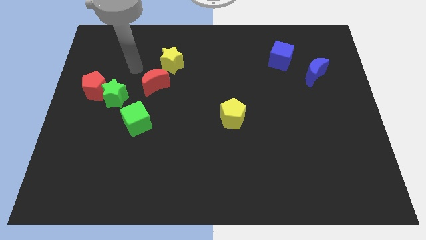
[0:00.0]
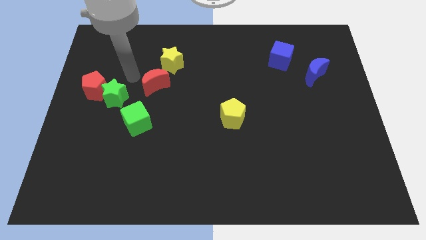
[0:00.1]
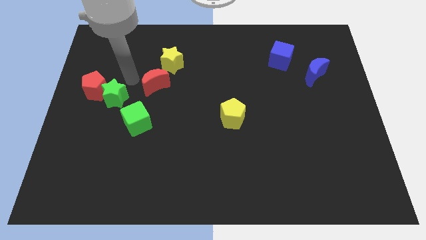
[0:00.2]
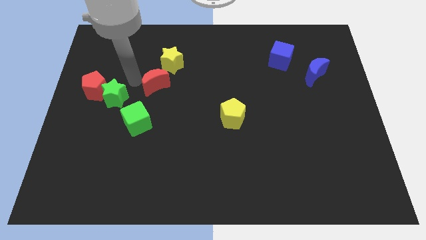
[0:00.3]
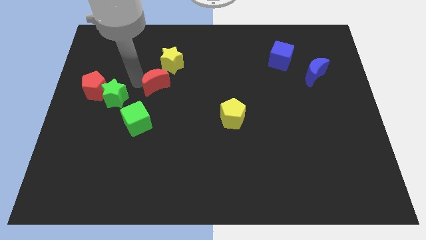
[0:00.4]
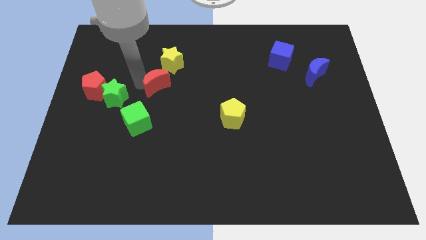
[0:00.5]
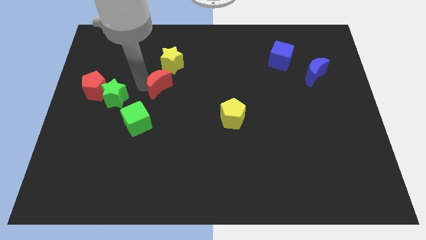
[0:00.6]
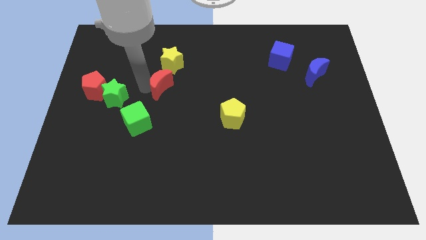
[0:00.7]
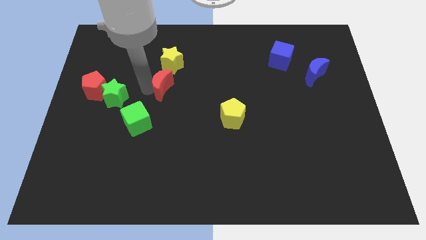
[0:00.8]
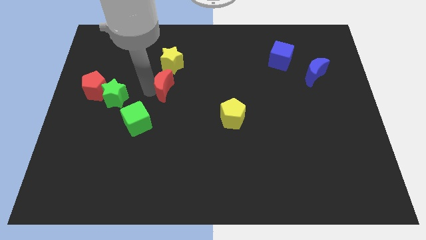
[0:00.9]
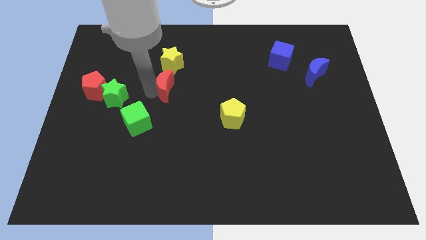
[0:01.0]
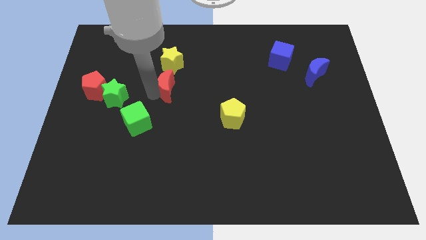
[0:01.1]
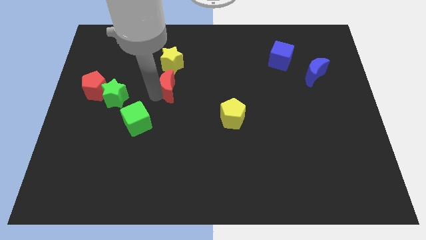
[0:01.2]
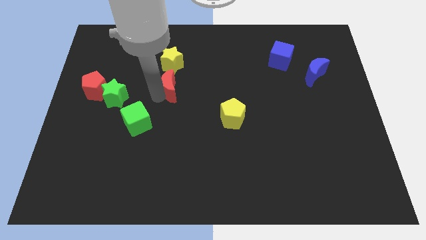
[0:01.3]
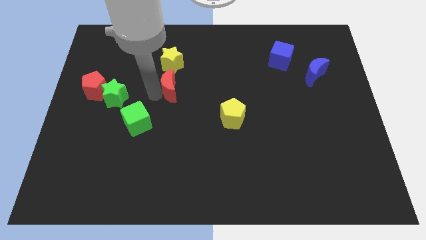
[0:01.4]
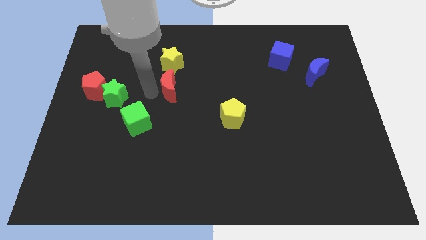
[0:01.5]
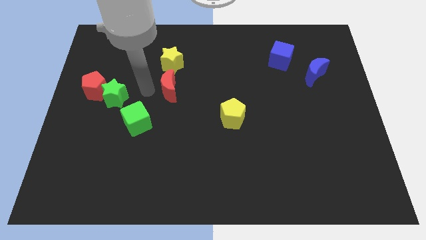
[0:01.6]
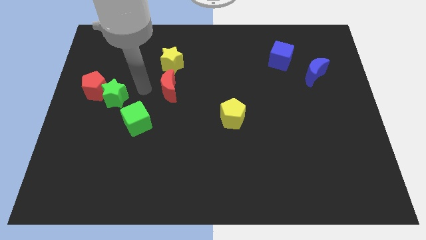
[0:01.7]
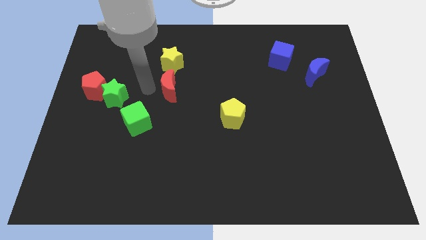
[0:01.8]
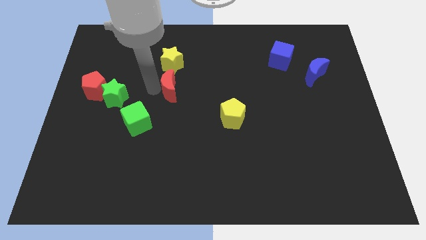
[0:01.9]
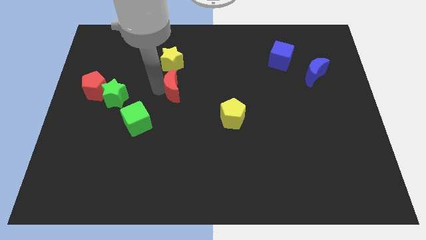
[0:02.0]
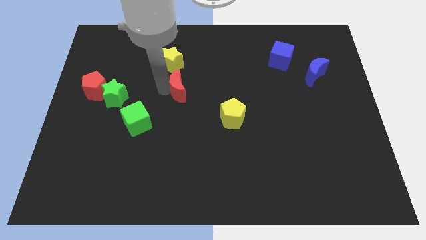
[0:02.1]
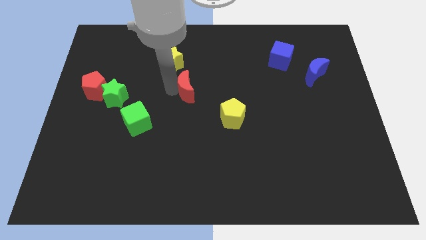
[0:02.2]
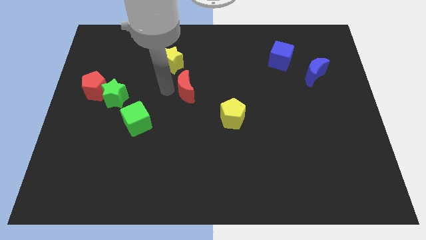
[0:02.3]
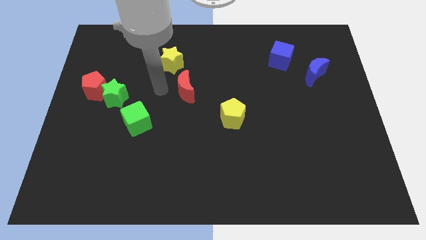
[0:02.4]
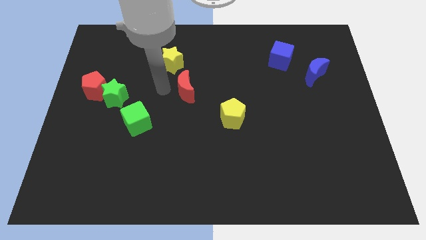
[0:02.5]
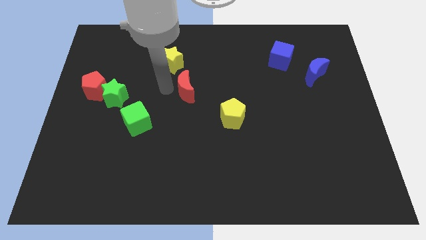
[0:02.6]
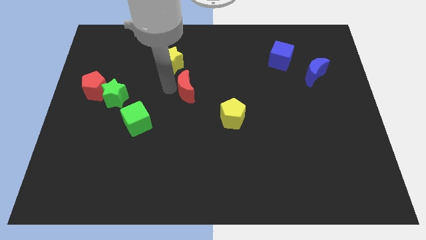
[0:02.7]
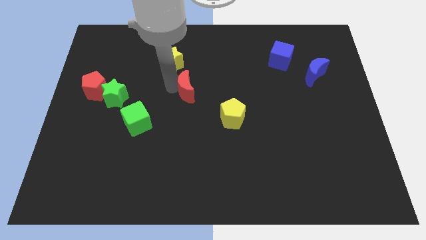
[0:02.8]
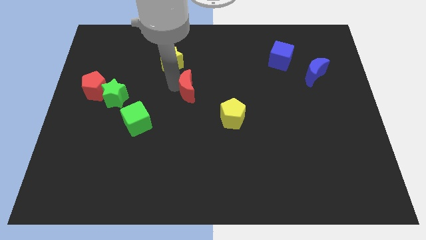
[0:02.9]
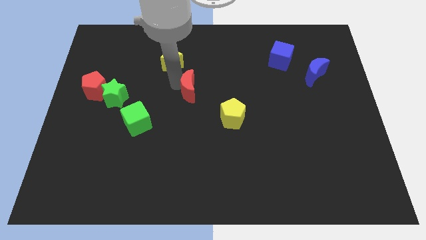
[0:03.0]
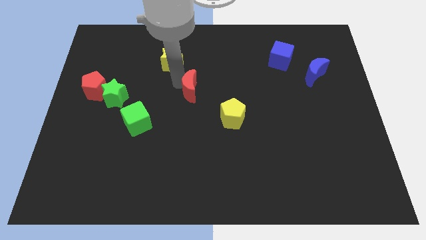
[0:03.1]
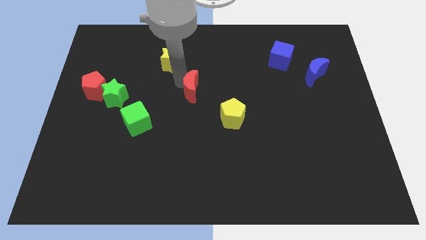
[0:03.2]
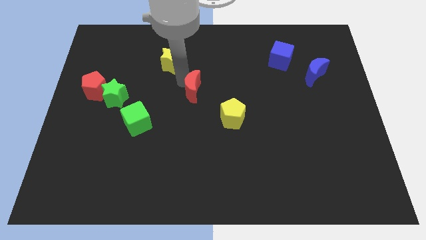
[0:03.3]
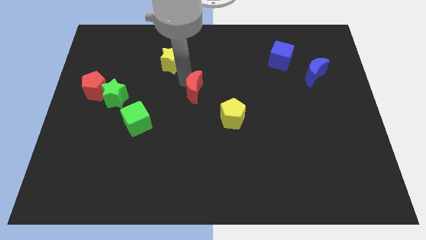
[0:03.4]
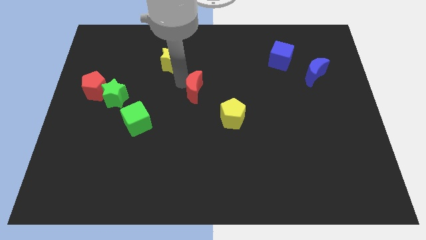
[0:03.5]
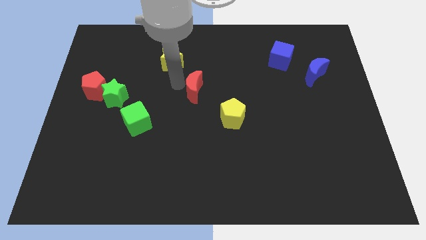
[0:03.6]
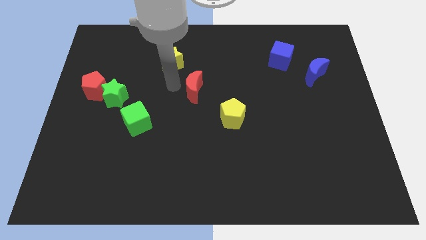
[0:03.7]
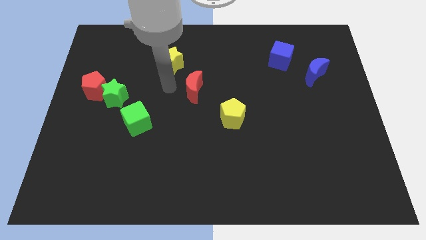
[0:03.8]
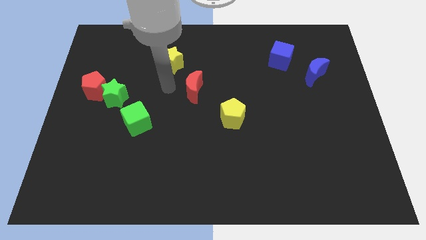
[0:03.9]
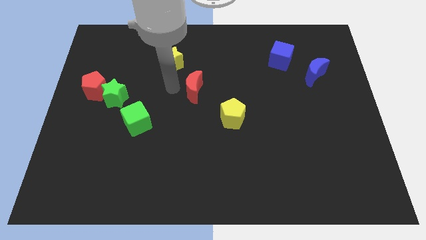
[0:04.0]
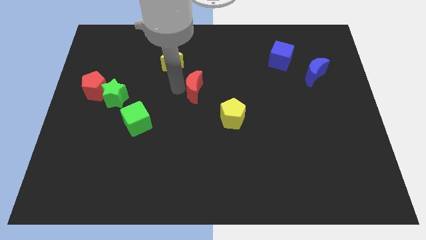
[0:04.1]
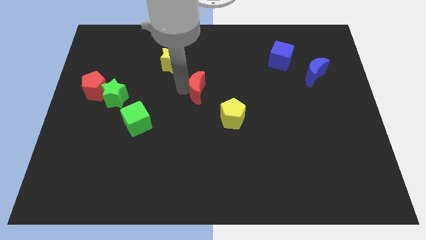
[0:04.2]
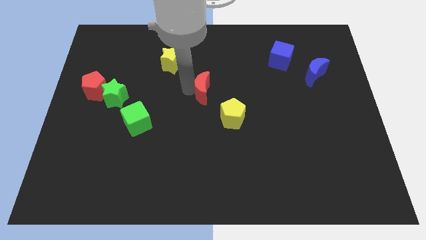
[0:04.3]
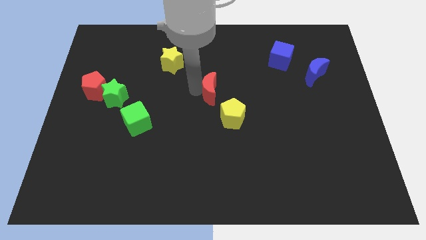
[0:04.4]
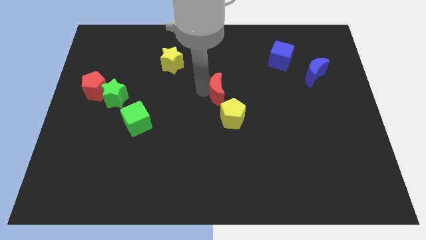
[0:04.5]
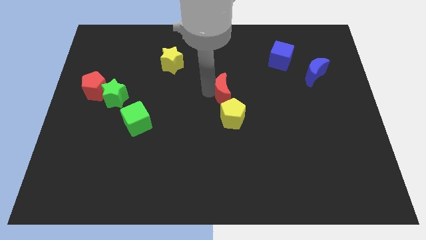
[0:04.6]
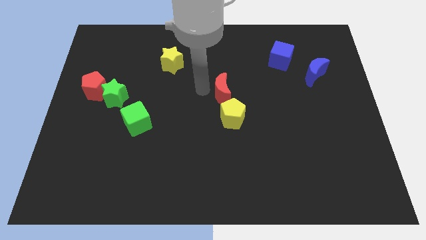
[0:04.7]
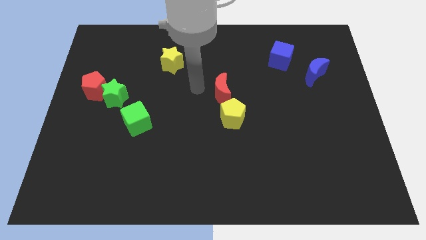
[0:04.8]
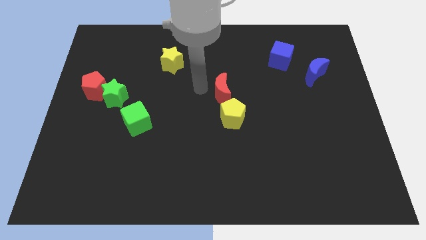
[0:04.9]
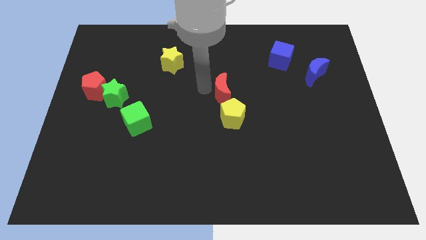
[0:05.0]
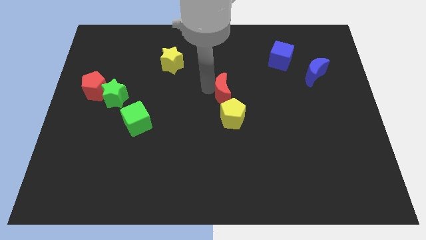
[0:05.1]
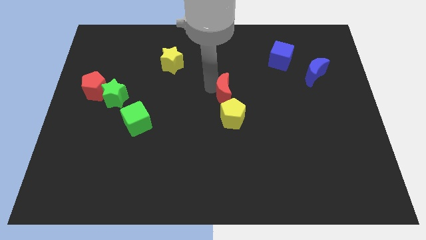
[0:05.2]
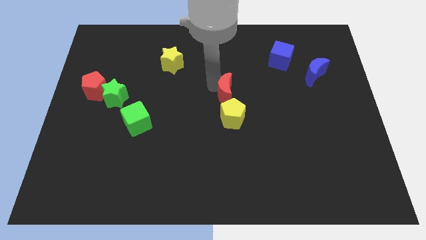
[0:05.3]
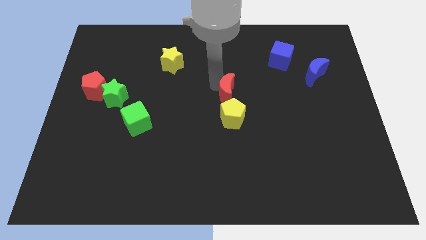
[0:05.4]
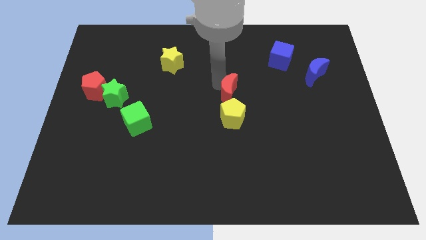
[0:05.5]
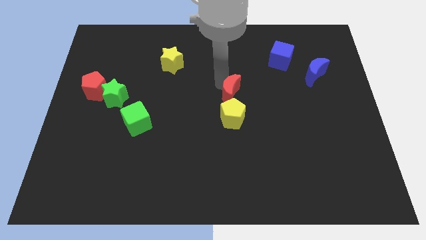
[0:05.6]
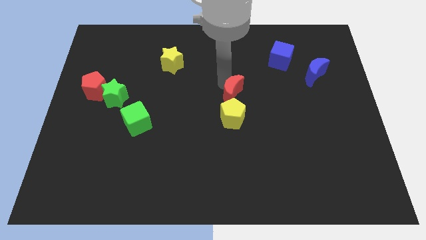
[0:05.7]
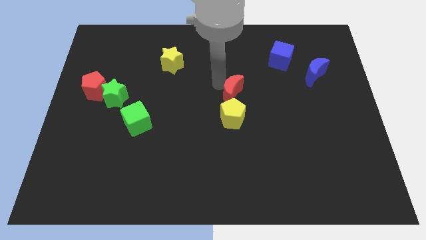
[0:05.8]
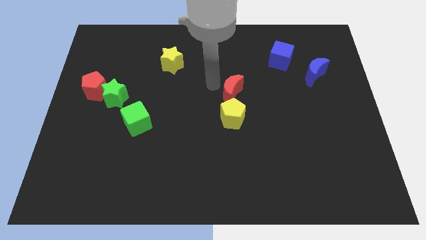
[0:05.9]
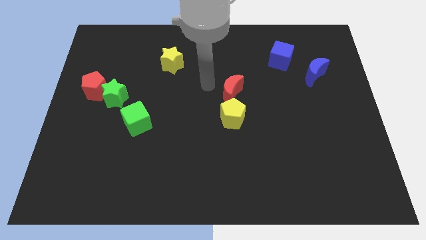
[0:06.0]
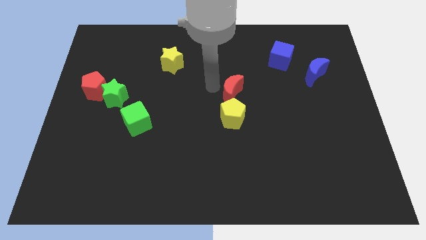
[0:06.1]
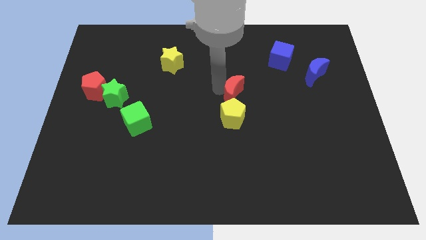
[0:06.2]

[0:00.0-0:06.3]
put the red moon diagonally up and to the right of the yellow pentagon

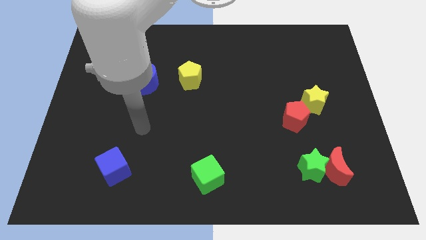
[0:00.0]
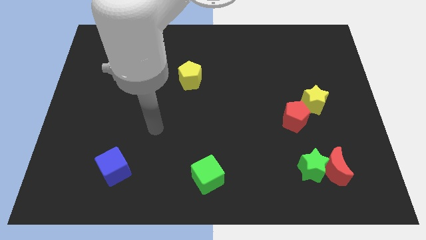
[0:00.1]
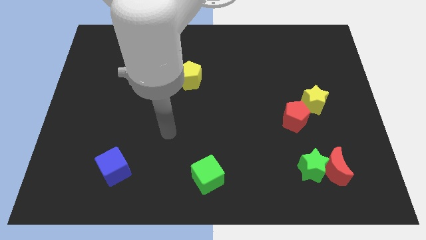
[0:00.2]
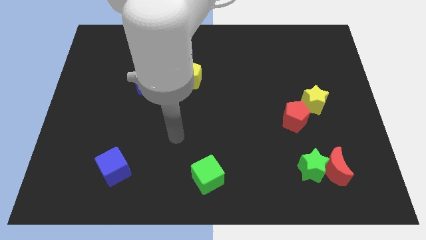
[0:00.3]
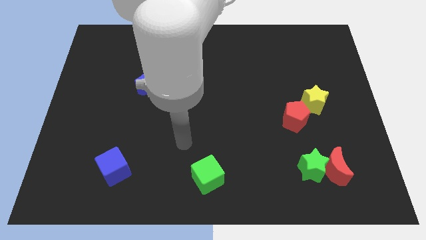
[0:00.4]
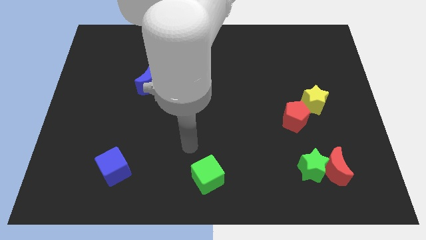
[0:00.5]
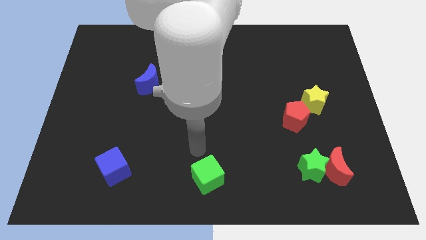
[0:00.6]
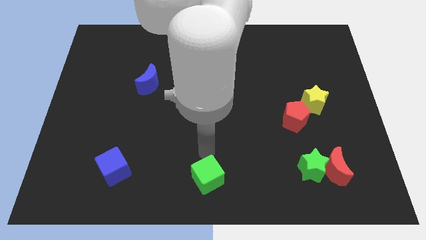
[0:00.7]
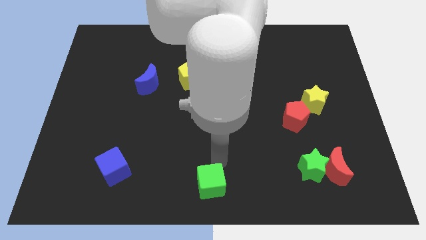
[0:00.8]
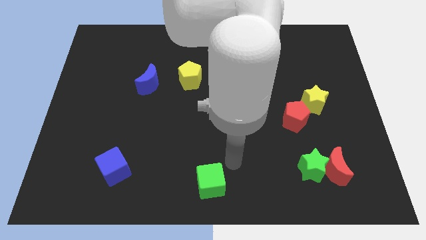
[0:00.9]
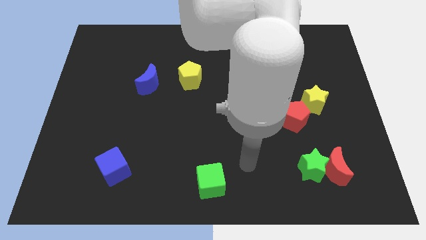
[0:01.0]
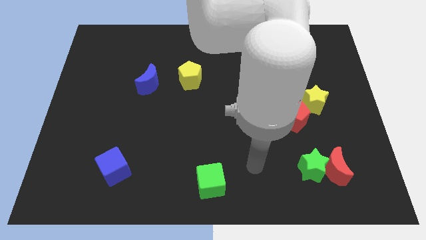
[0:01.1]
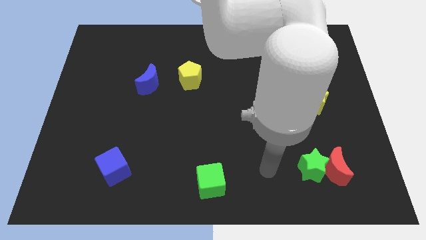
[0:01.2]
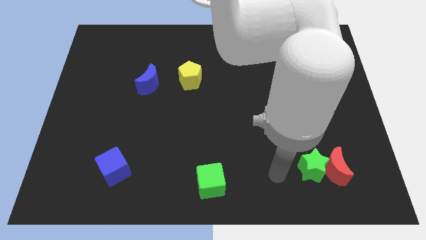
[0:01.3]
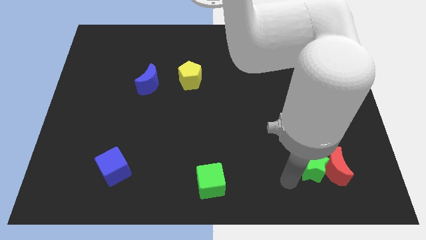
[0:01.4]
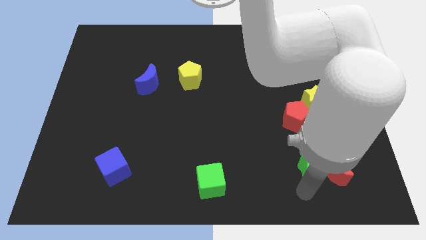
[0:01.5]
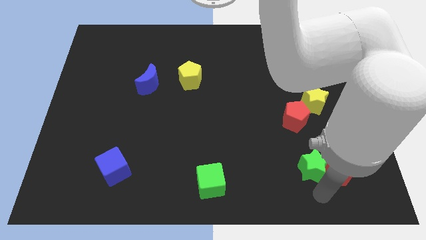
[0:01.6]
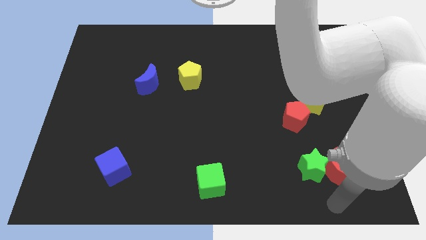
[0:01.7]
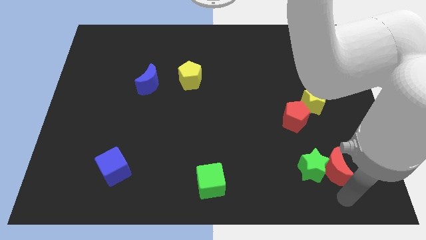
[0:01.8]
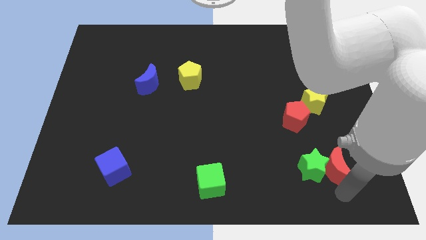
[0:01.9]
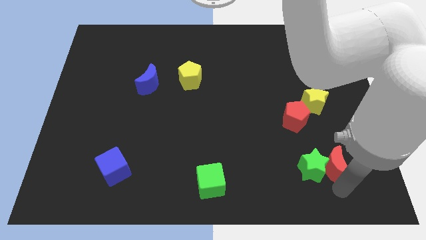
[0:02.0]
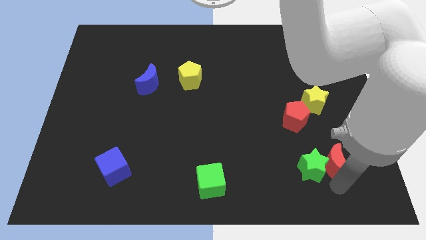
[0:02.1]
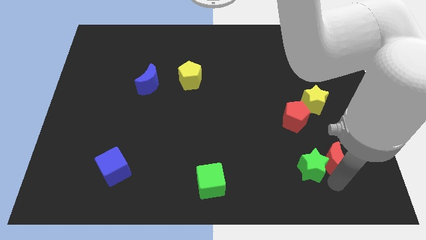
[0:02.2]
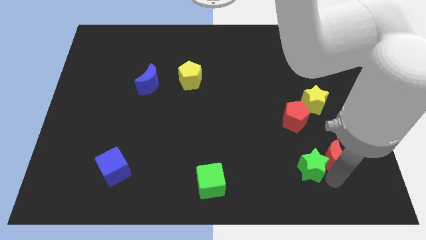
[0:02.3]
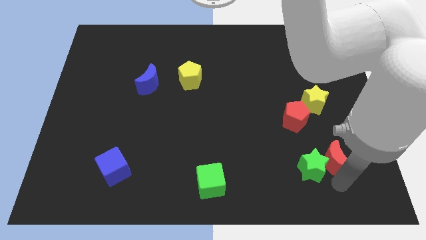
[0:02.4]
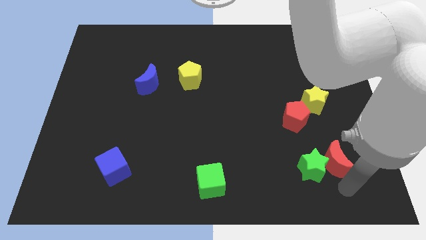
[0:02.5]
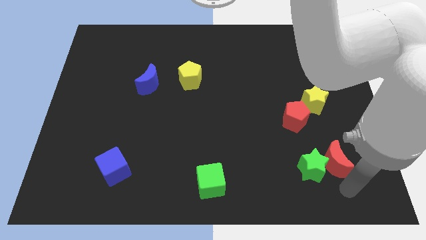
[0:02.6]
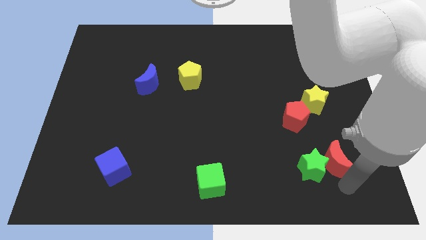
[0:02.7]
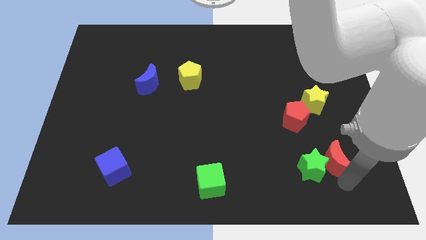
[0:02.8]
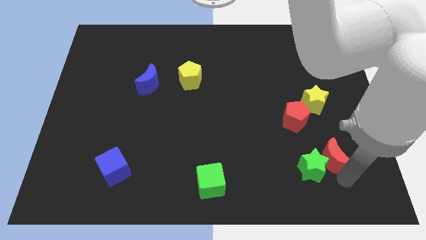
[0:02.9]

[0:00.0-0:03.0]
move the red moon to the bottom right of the red pentagon
